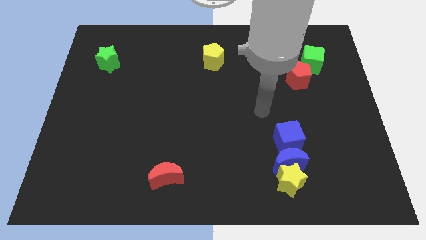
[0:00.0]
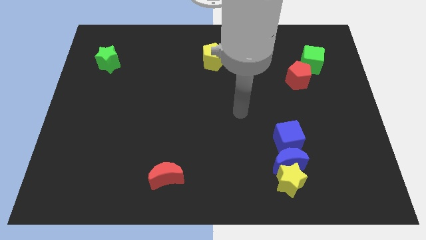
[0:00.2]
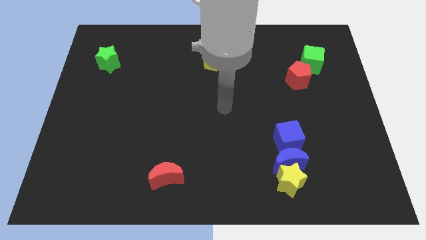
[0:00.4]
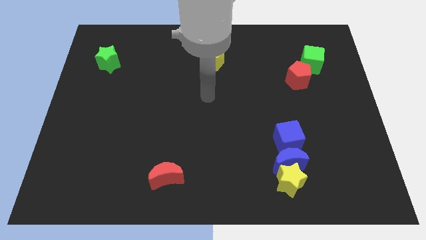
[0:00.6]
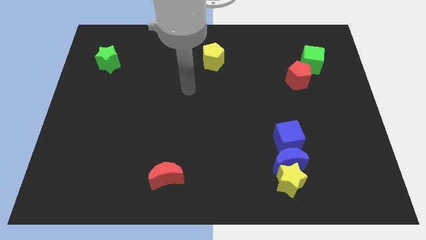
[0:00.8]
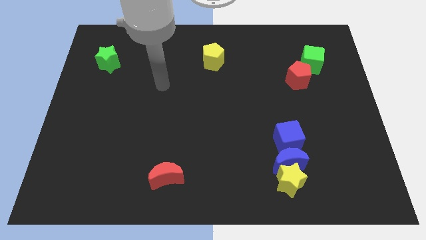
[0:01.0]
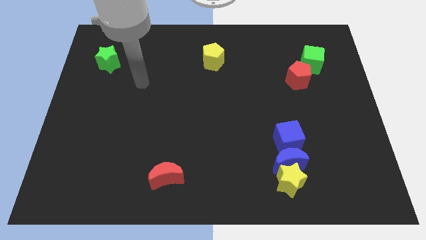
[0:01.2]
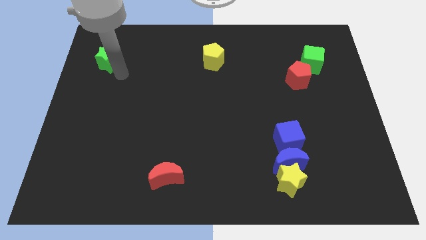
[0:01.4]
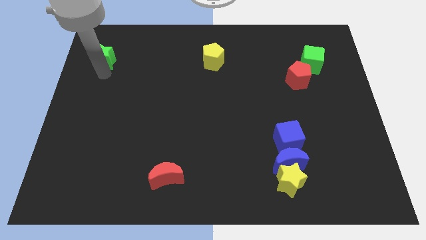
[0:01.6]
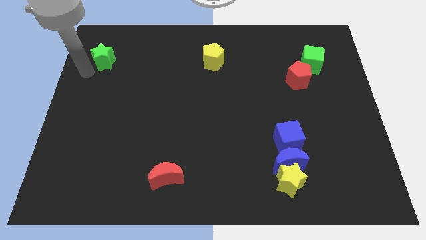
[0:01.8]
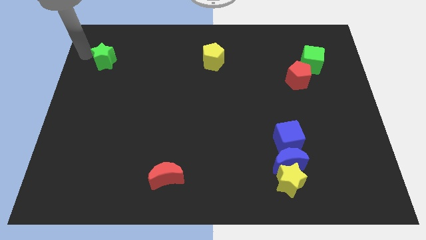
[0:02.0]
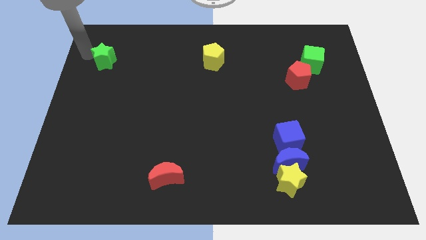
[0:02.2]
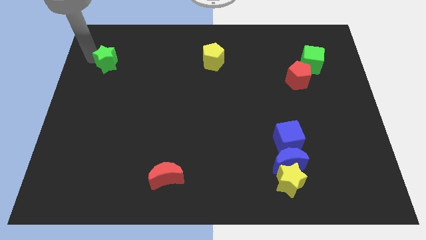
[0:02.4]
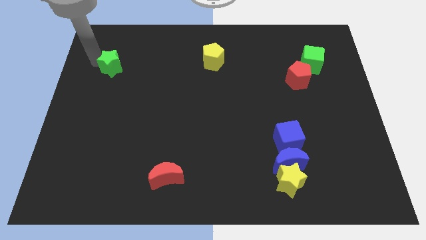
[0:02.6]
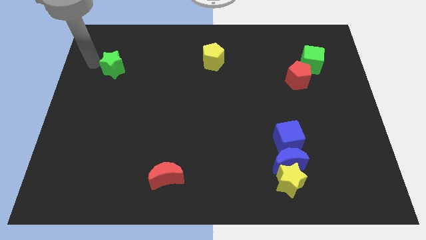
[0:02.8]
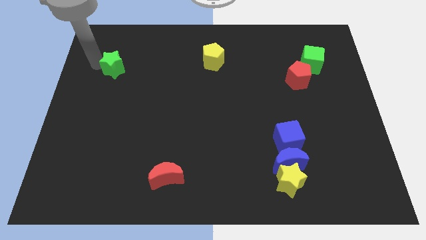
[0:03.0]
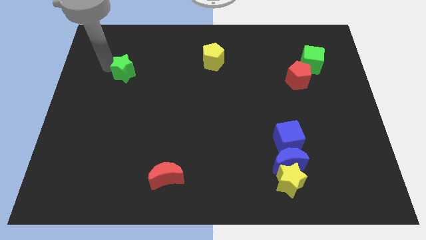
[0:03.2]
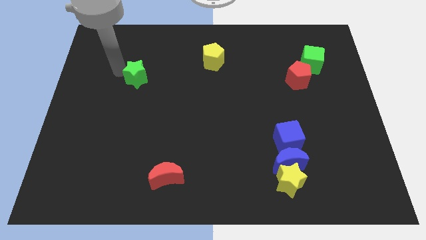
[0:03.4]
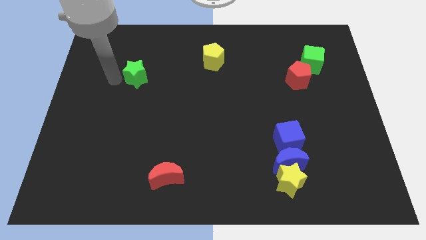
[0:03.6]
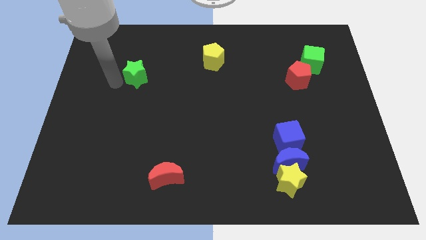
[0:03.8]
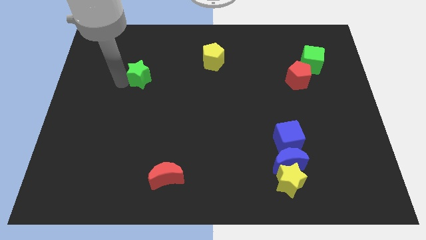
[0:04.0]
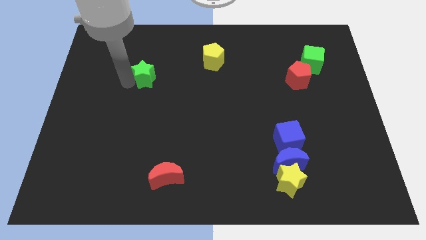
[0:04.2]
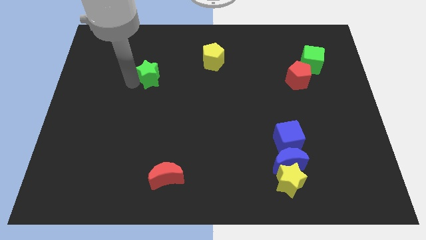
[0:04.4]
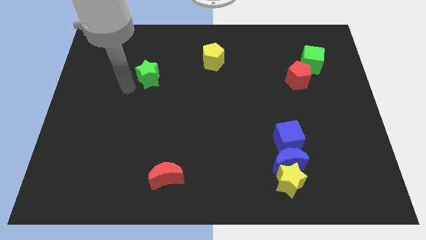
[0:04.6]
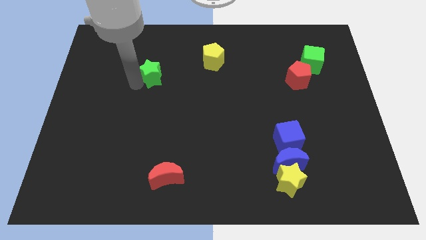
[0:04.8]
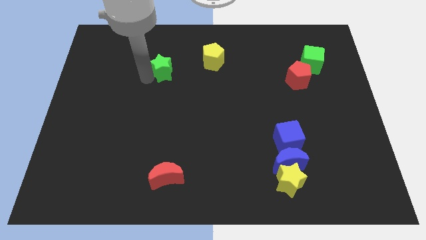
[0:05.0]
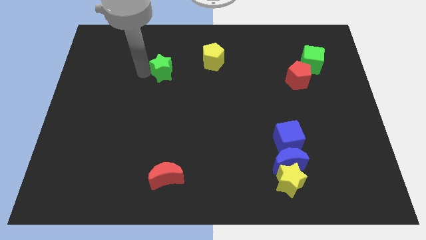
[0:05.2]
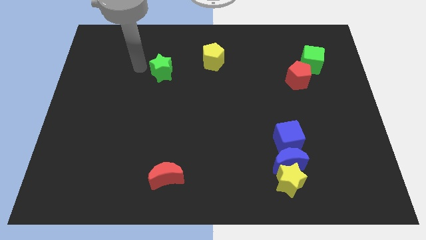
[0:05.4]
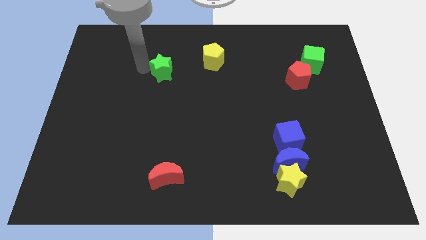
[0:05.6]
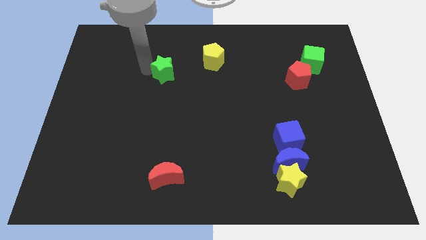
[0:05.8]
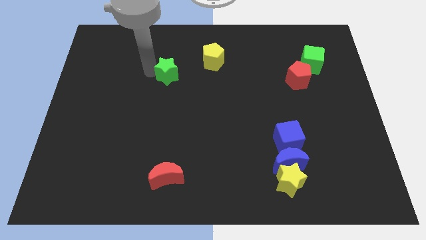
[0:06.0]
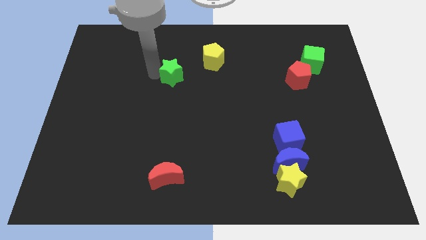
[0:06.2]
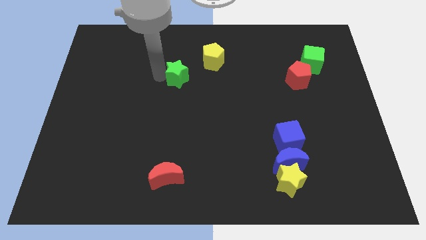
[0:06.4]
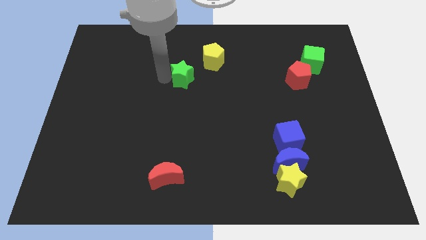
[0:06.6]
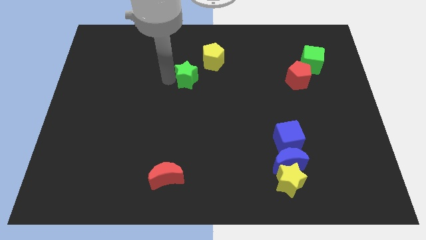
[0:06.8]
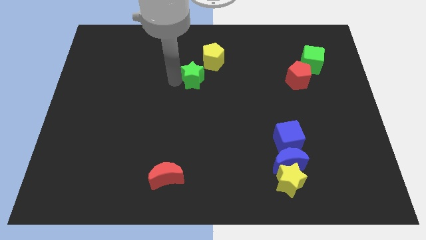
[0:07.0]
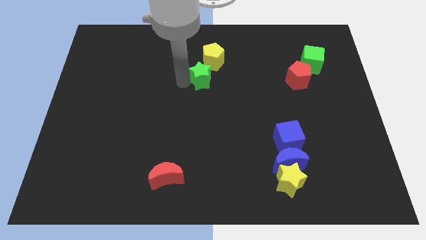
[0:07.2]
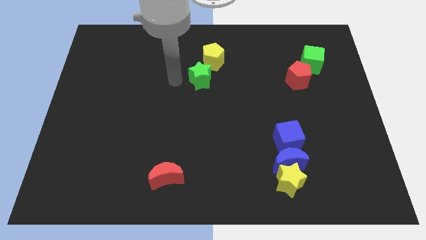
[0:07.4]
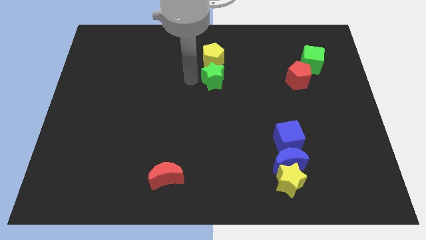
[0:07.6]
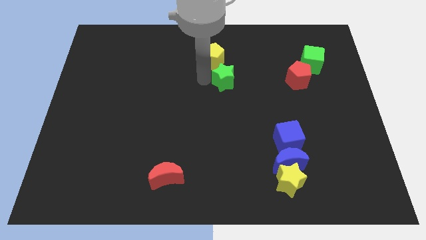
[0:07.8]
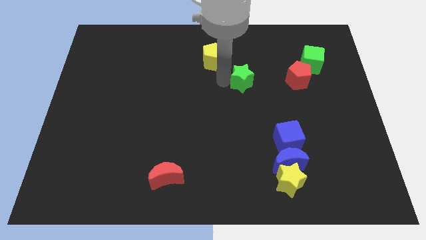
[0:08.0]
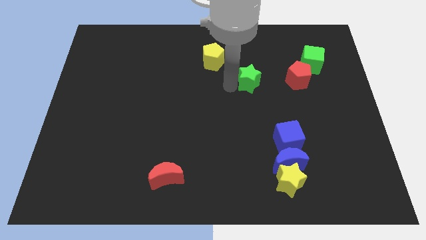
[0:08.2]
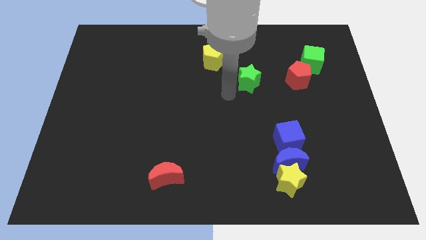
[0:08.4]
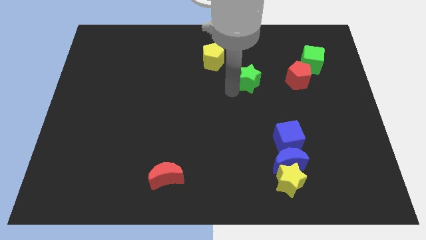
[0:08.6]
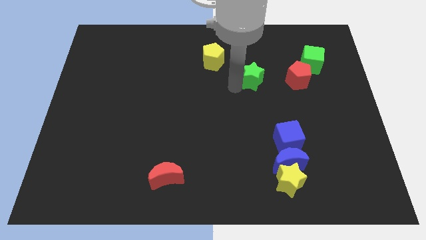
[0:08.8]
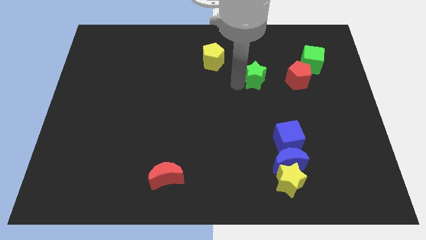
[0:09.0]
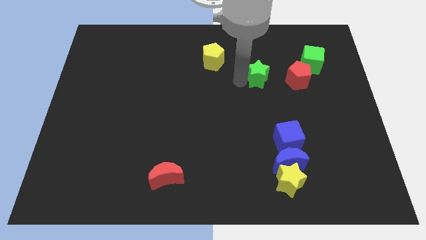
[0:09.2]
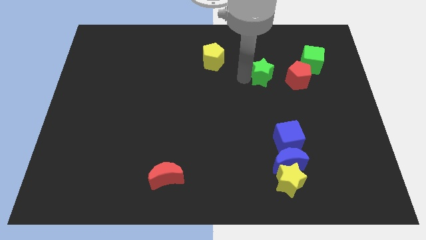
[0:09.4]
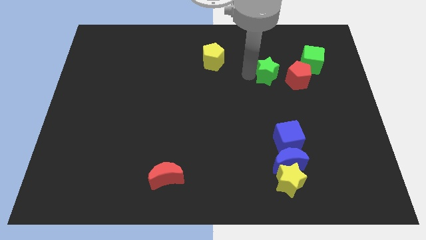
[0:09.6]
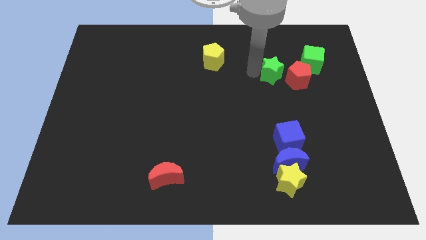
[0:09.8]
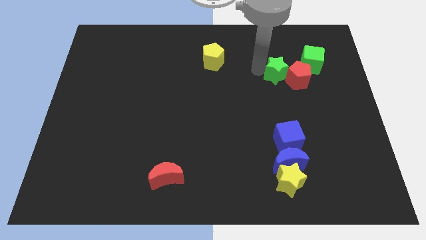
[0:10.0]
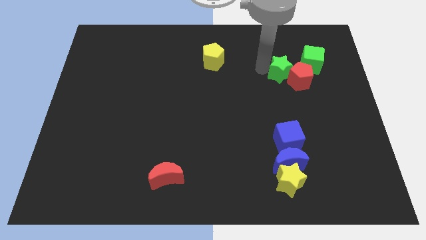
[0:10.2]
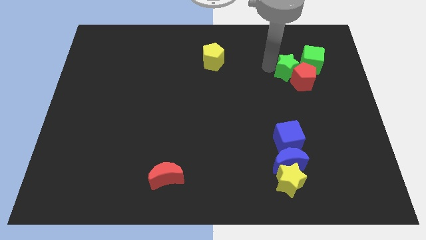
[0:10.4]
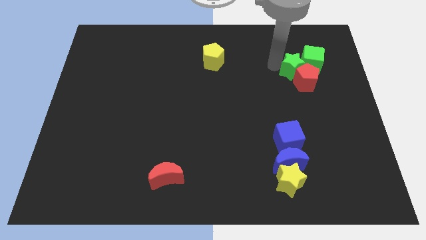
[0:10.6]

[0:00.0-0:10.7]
slide the green star towards the green cube

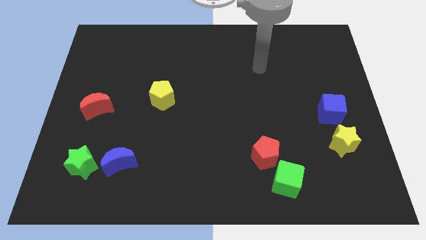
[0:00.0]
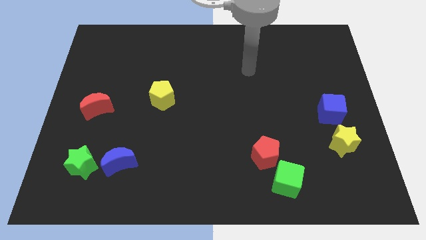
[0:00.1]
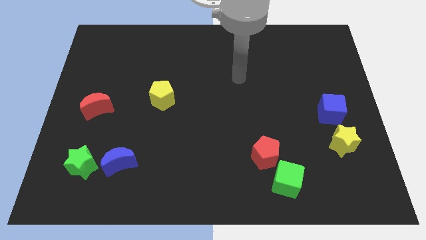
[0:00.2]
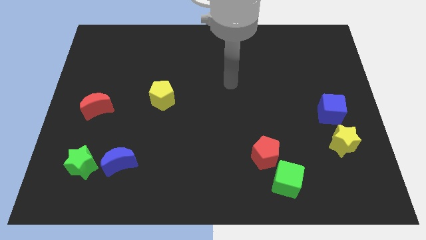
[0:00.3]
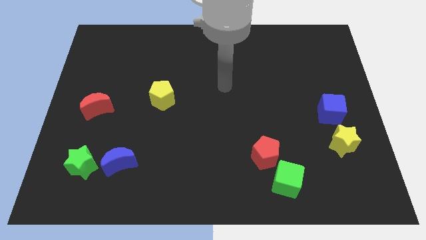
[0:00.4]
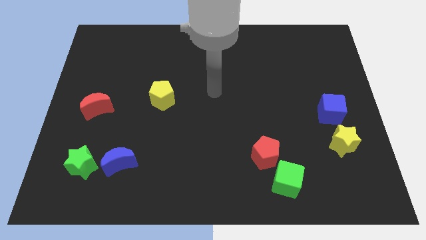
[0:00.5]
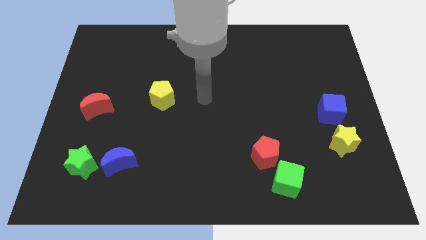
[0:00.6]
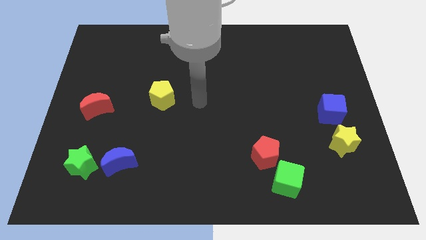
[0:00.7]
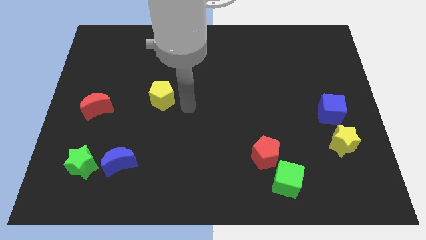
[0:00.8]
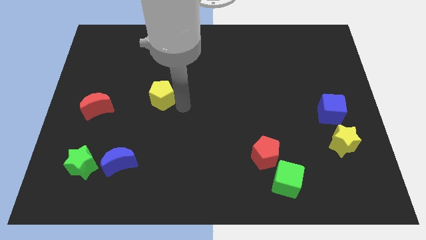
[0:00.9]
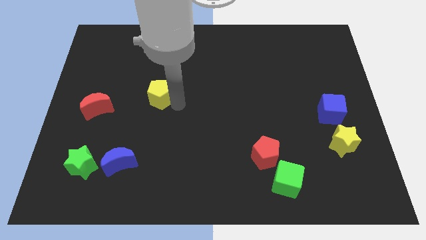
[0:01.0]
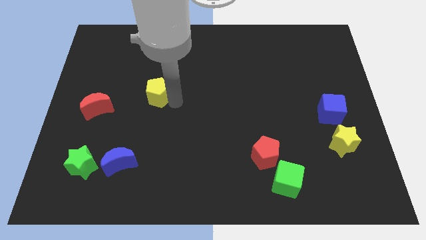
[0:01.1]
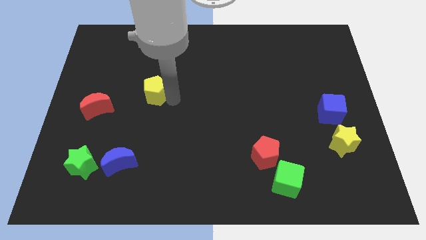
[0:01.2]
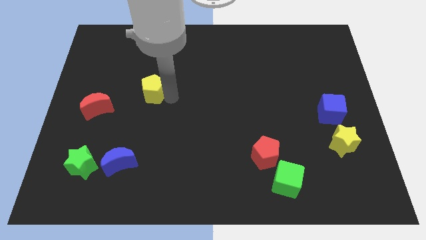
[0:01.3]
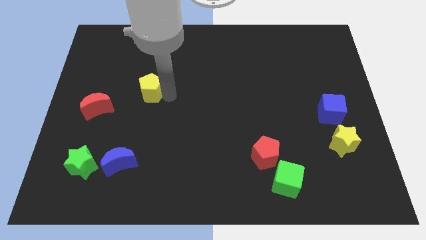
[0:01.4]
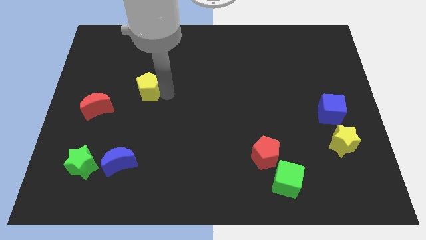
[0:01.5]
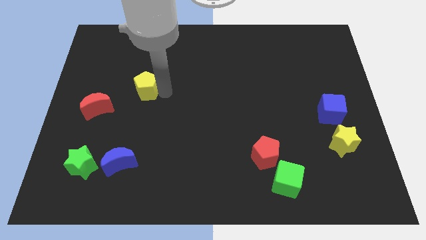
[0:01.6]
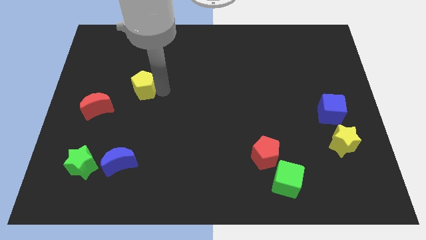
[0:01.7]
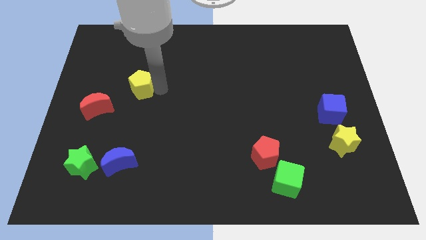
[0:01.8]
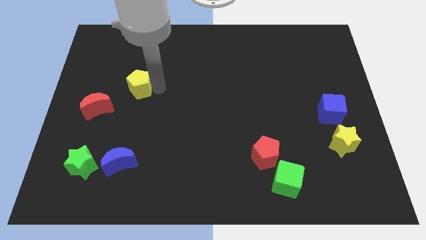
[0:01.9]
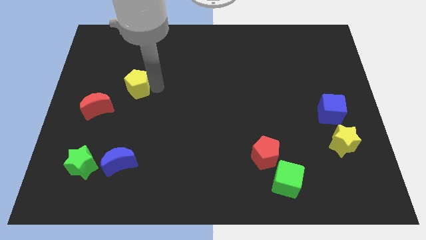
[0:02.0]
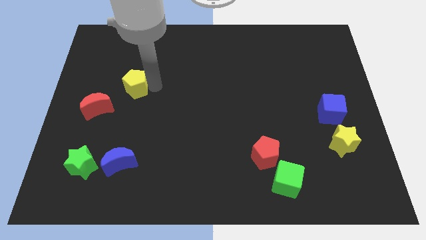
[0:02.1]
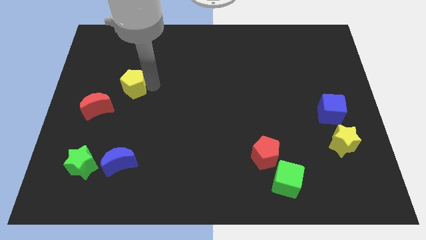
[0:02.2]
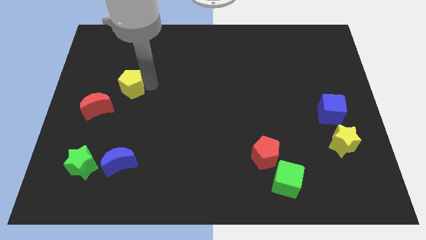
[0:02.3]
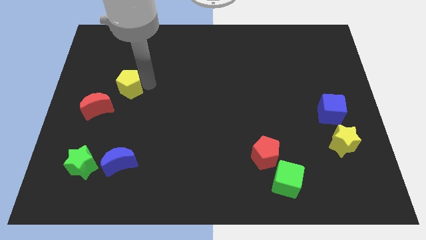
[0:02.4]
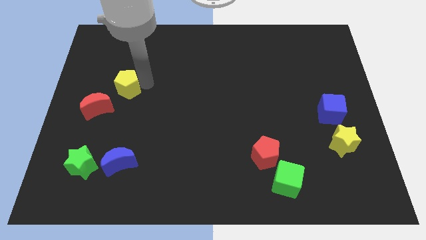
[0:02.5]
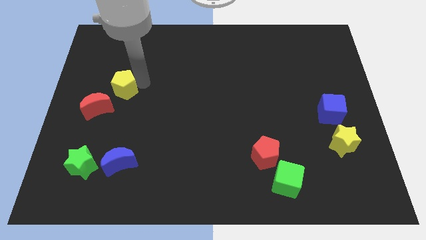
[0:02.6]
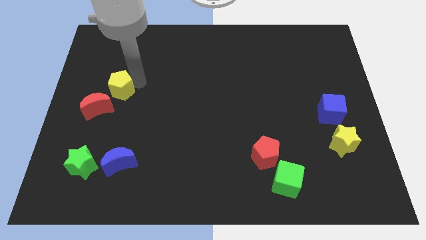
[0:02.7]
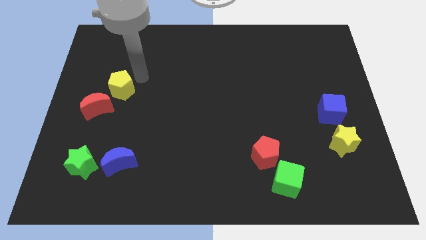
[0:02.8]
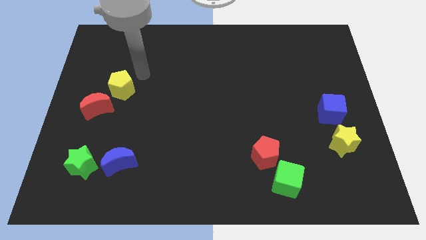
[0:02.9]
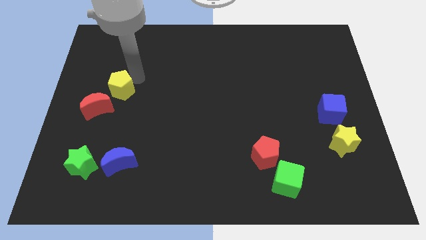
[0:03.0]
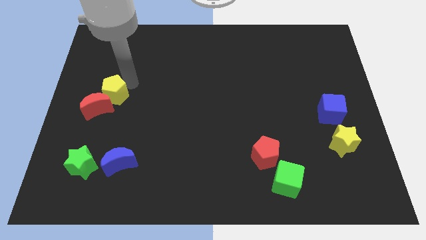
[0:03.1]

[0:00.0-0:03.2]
put the yellow pentagon towards the red moon

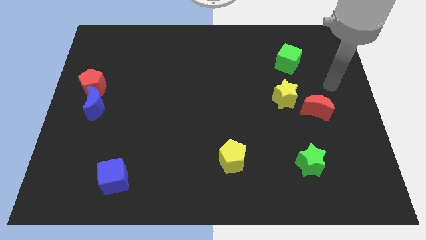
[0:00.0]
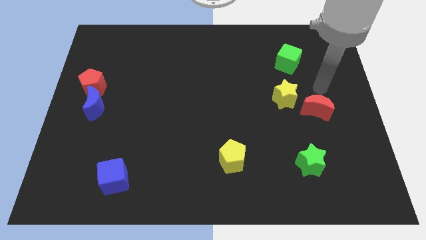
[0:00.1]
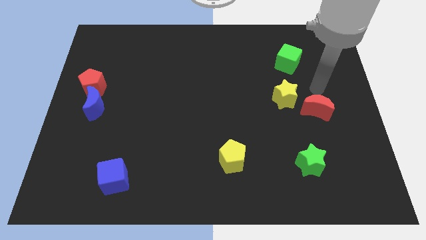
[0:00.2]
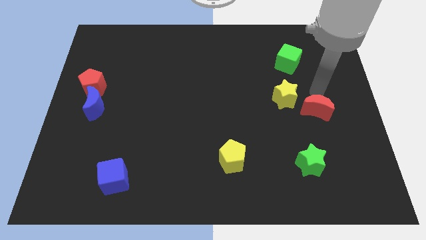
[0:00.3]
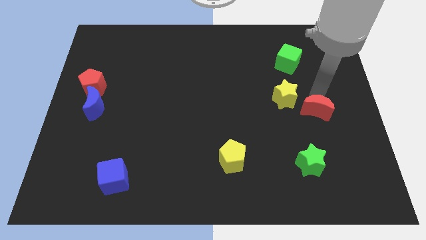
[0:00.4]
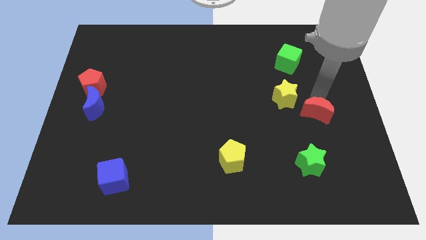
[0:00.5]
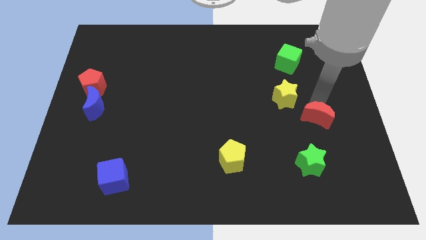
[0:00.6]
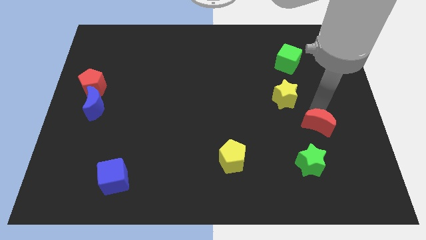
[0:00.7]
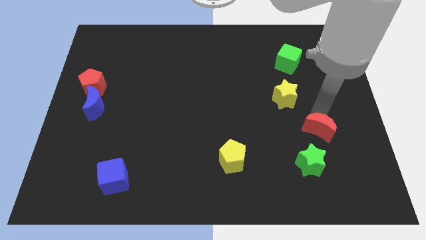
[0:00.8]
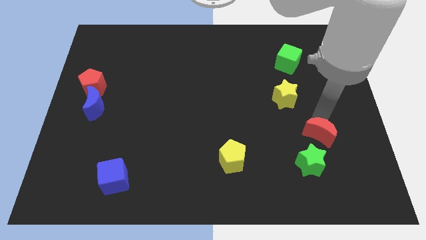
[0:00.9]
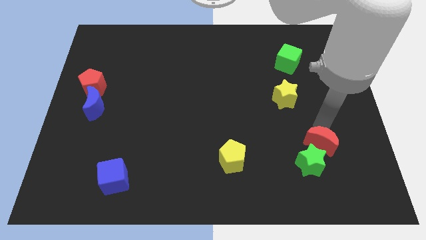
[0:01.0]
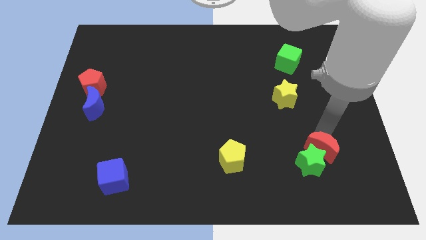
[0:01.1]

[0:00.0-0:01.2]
move the red moon close to the green star
